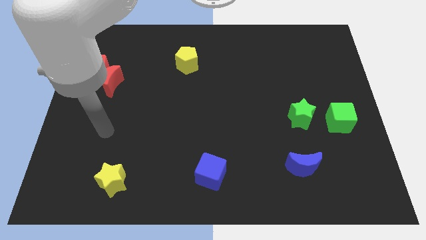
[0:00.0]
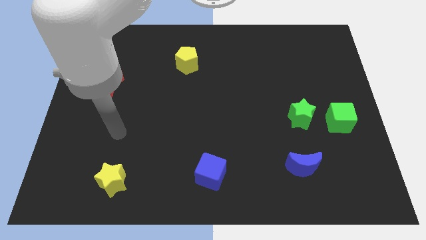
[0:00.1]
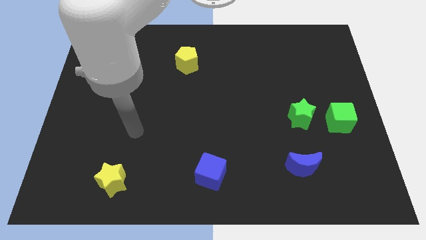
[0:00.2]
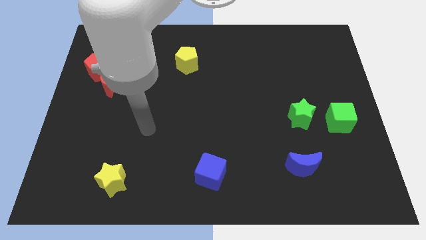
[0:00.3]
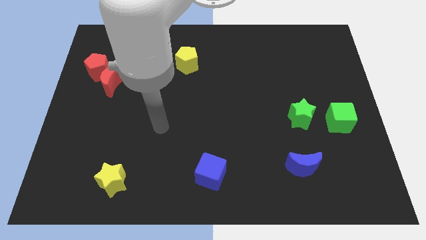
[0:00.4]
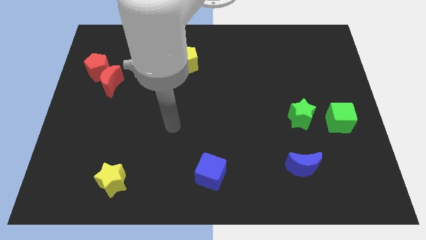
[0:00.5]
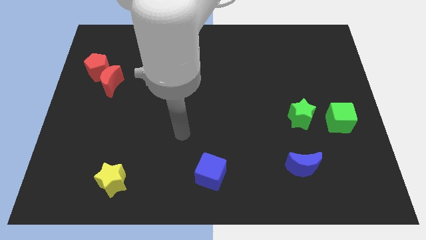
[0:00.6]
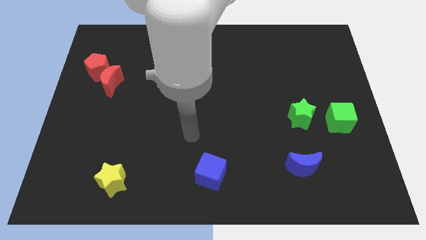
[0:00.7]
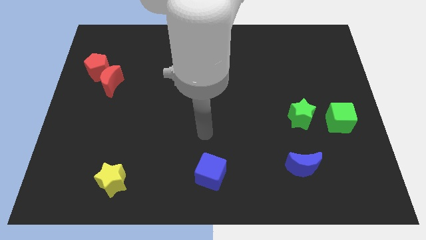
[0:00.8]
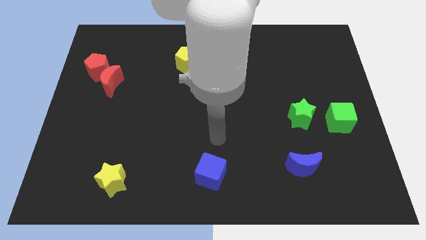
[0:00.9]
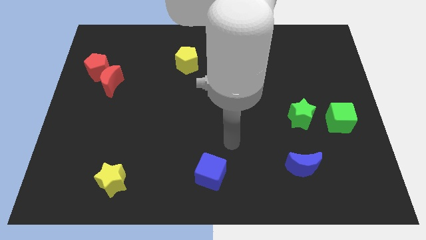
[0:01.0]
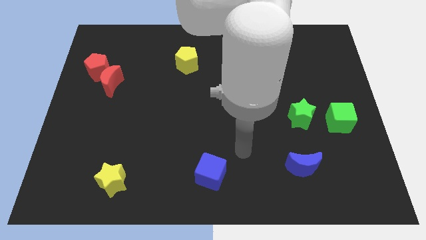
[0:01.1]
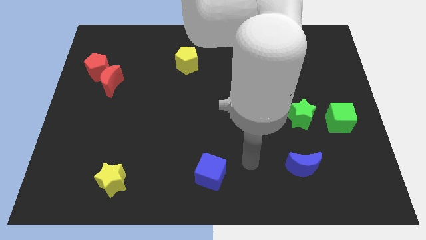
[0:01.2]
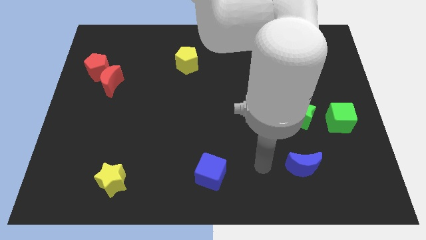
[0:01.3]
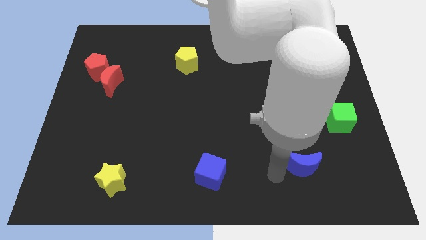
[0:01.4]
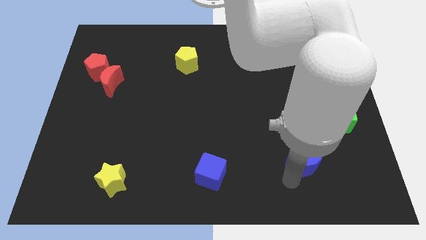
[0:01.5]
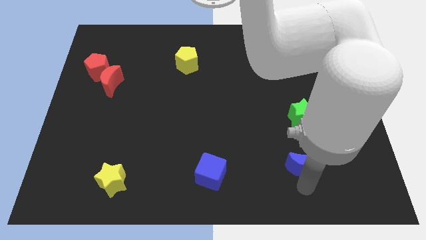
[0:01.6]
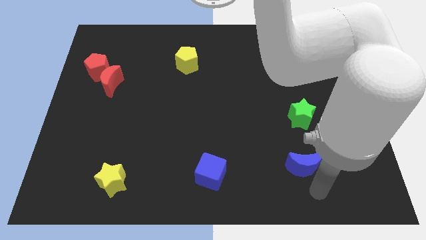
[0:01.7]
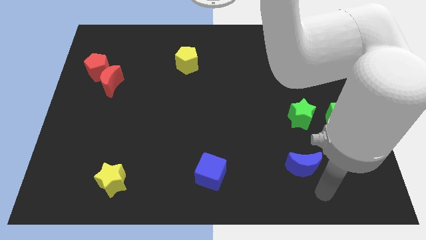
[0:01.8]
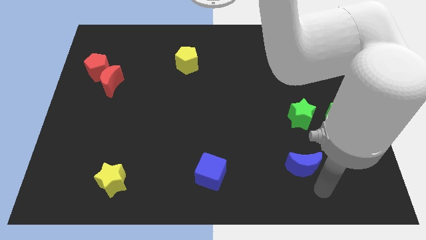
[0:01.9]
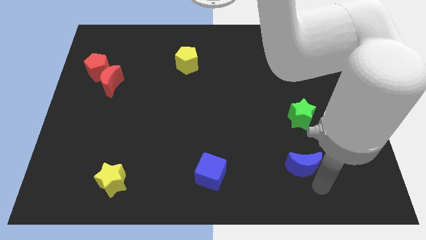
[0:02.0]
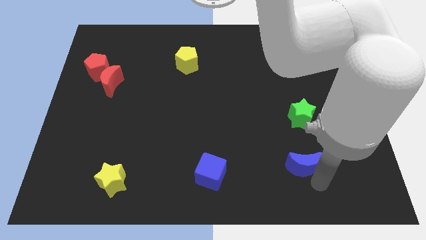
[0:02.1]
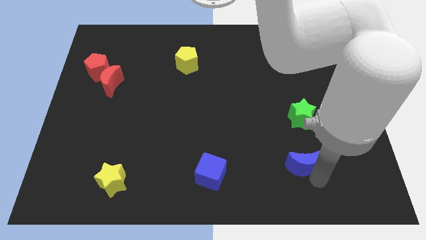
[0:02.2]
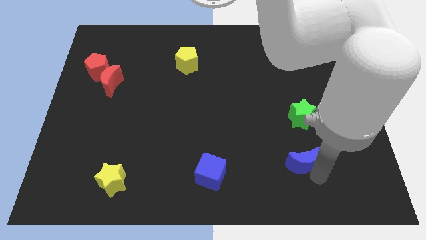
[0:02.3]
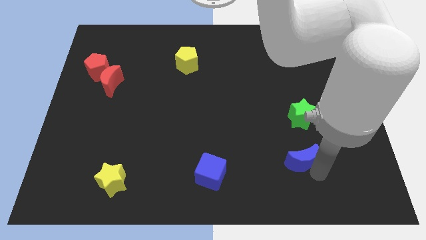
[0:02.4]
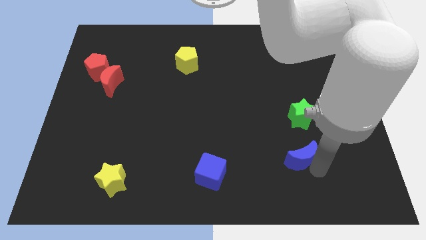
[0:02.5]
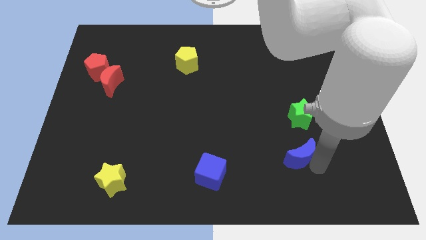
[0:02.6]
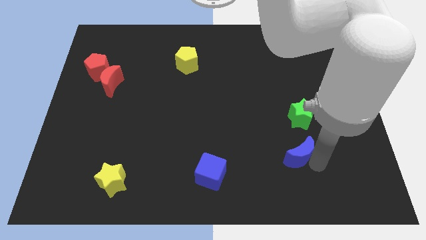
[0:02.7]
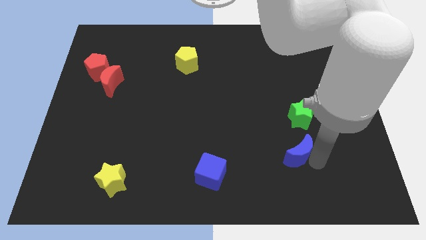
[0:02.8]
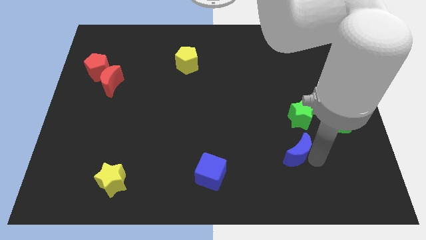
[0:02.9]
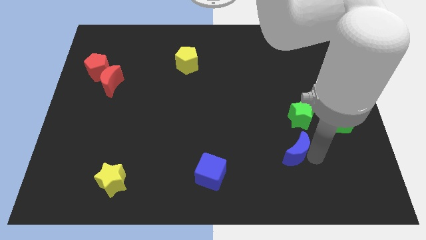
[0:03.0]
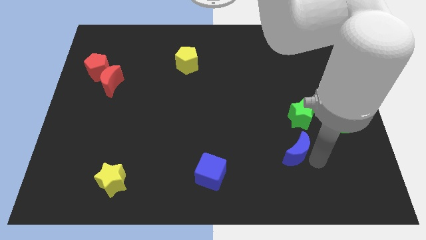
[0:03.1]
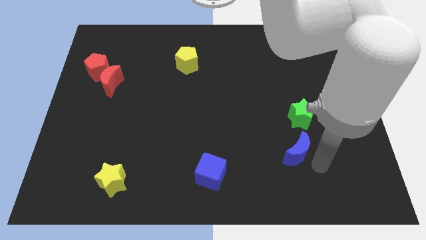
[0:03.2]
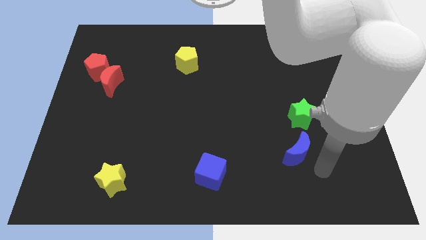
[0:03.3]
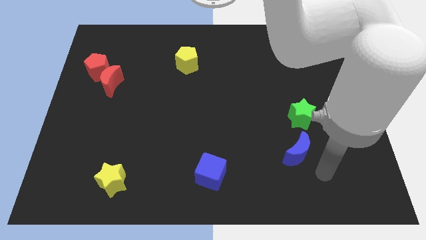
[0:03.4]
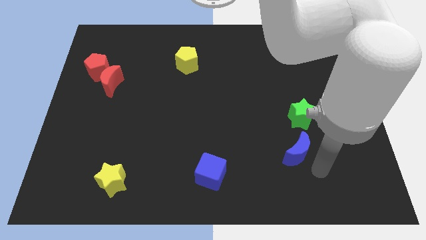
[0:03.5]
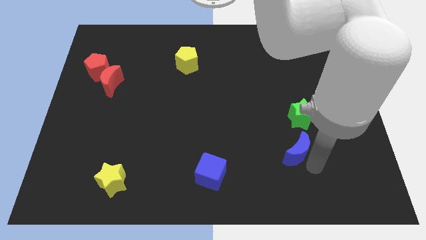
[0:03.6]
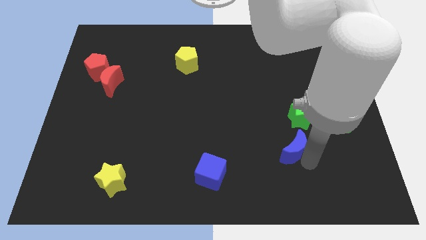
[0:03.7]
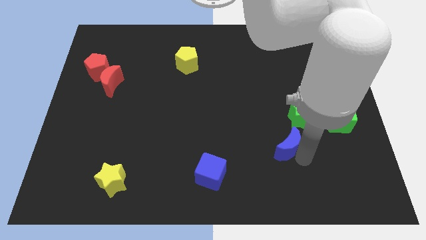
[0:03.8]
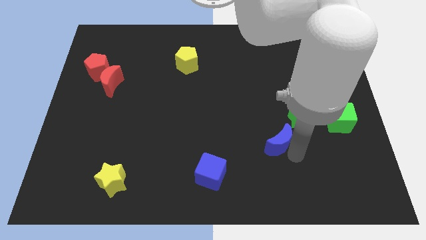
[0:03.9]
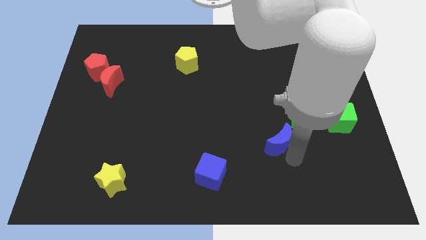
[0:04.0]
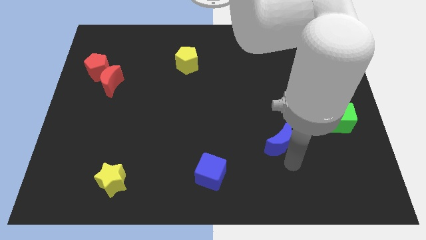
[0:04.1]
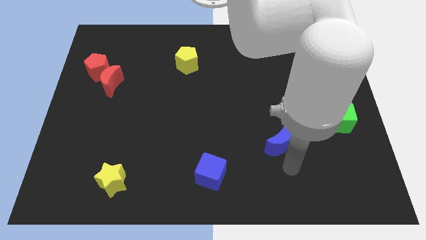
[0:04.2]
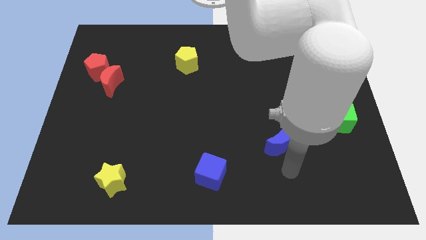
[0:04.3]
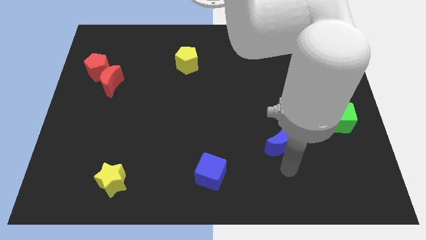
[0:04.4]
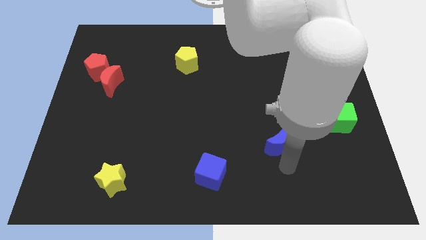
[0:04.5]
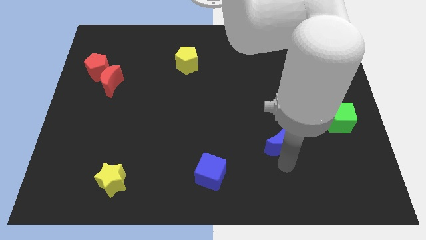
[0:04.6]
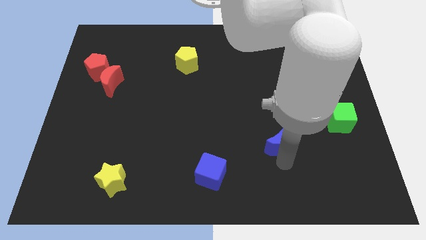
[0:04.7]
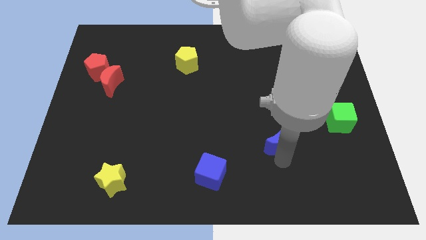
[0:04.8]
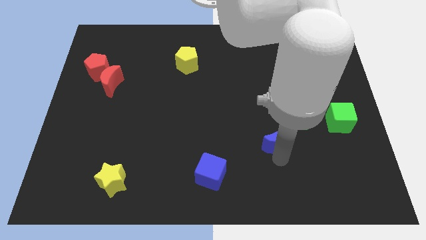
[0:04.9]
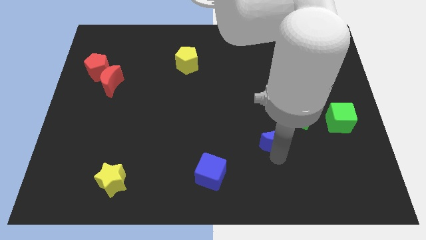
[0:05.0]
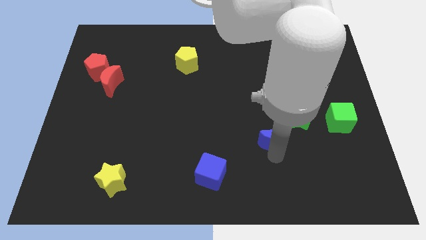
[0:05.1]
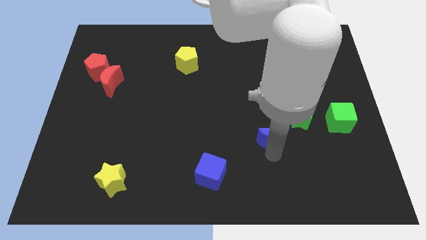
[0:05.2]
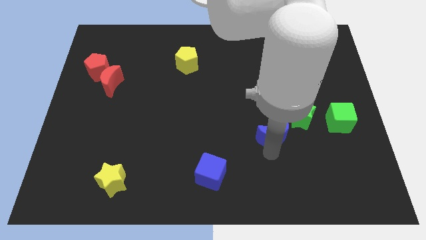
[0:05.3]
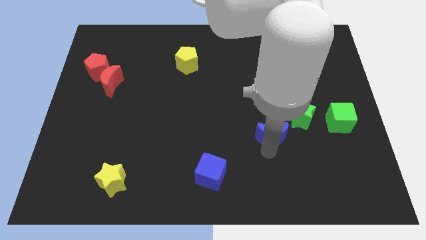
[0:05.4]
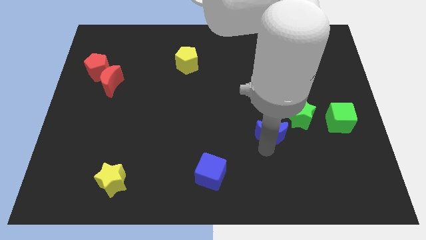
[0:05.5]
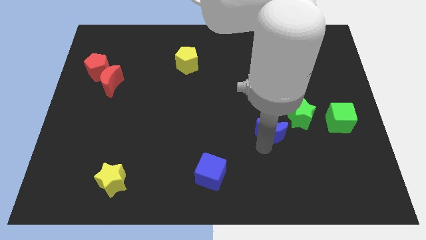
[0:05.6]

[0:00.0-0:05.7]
slightly push the blue moon upwards

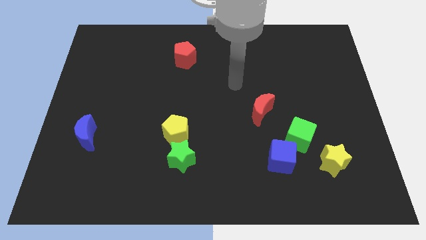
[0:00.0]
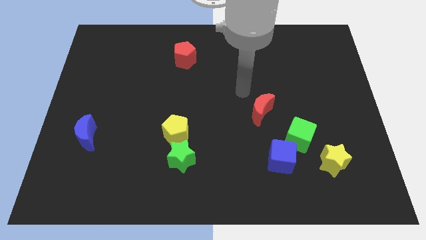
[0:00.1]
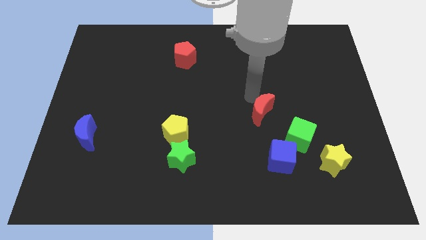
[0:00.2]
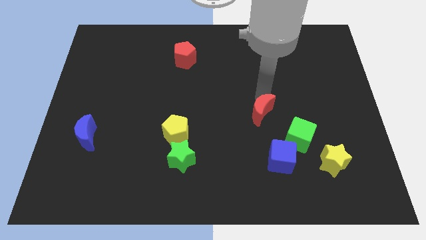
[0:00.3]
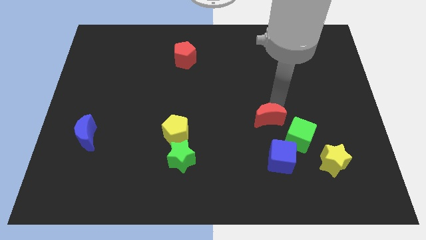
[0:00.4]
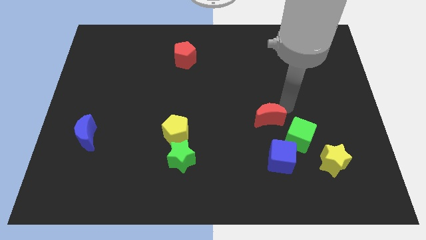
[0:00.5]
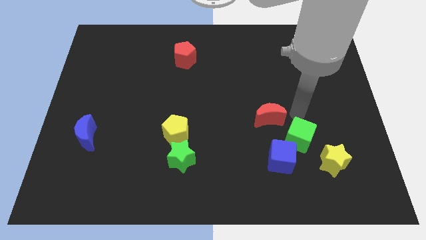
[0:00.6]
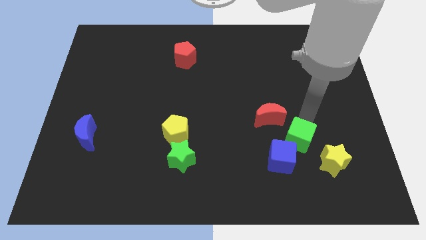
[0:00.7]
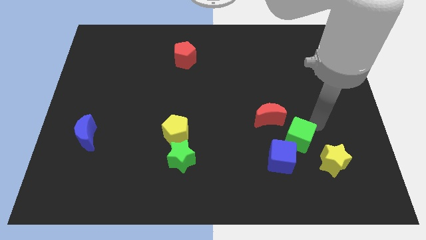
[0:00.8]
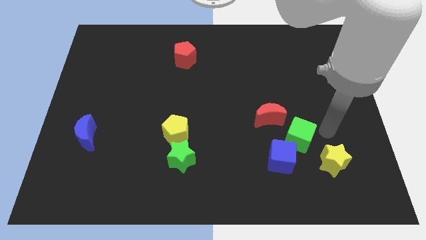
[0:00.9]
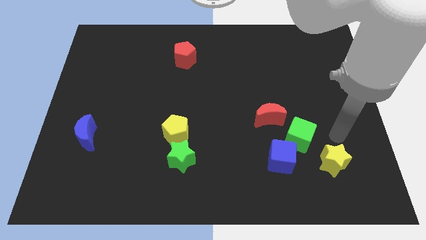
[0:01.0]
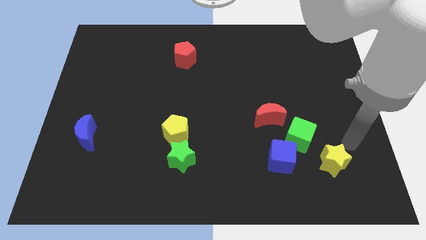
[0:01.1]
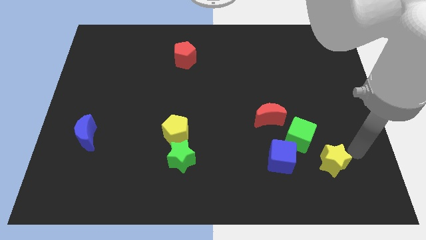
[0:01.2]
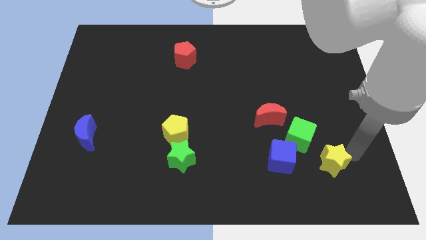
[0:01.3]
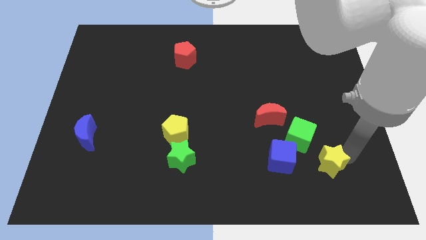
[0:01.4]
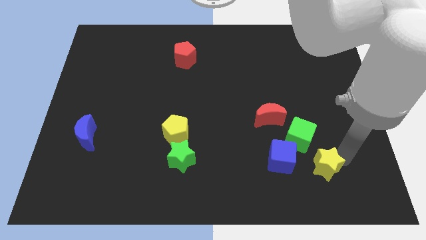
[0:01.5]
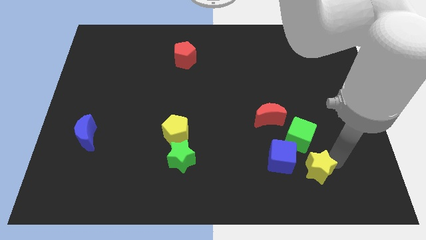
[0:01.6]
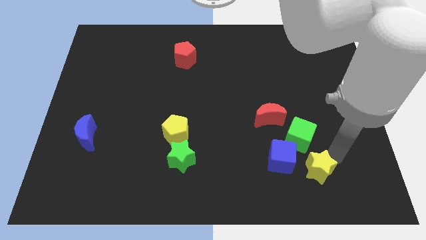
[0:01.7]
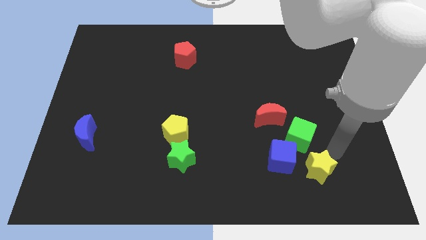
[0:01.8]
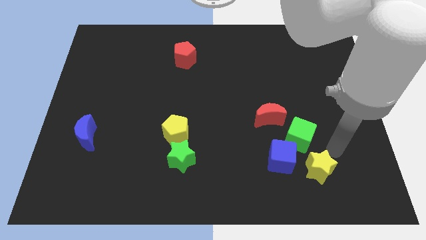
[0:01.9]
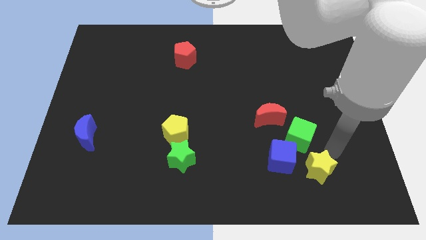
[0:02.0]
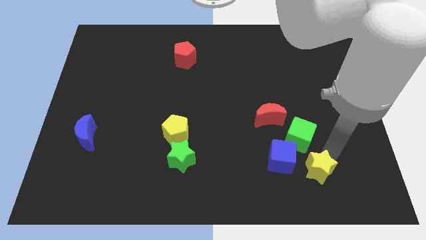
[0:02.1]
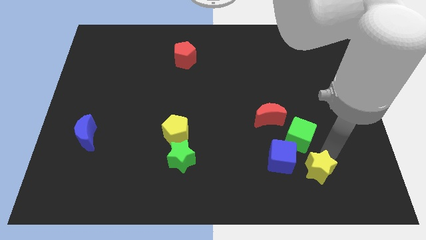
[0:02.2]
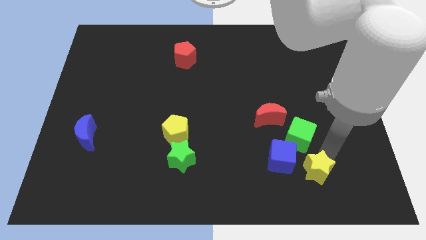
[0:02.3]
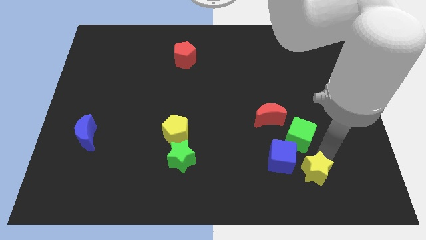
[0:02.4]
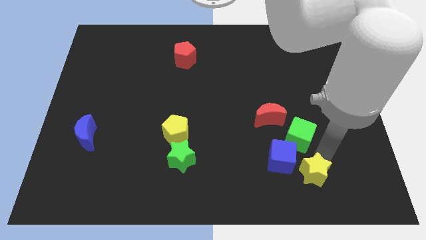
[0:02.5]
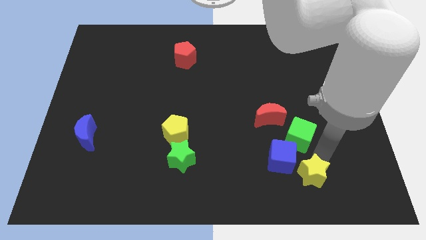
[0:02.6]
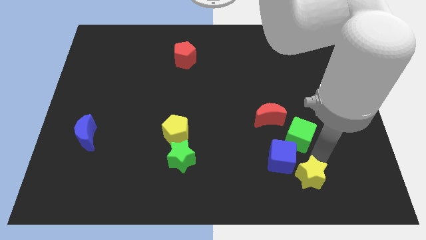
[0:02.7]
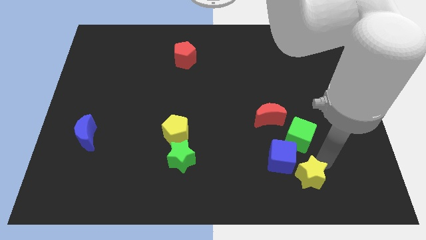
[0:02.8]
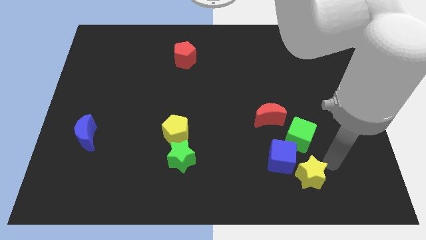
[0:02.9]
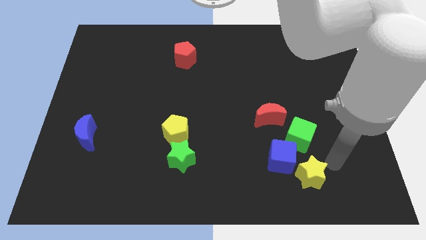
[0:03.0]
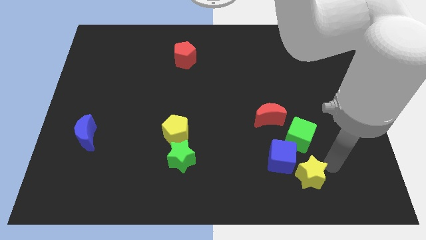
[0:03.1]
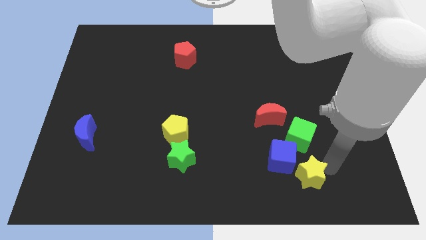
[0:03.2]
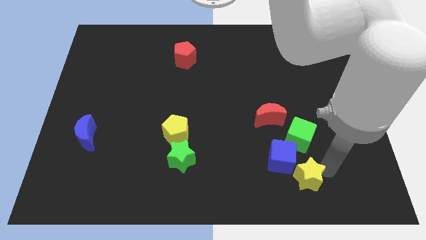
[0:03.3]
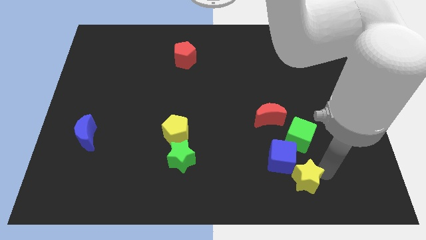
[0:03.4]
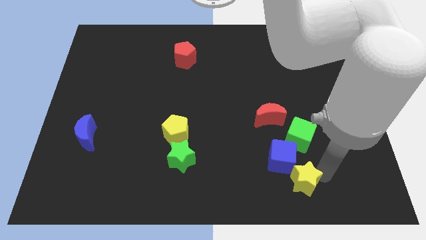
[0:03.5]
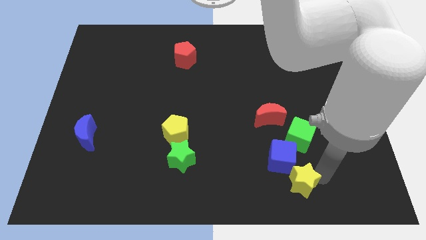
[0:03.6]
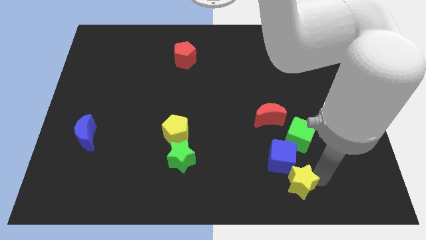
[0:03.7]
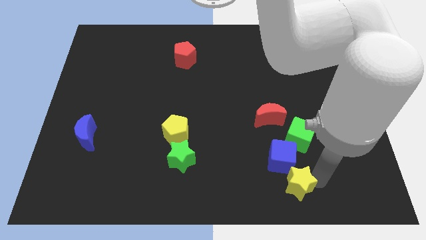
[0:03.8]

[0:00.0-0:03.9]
push the yellow star left a bit
